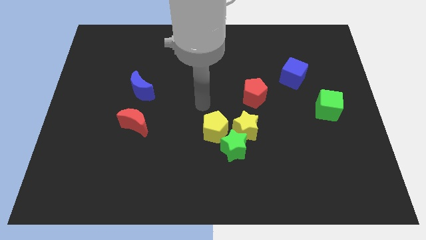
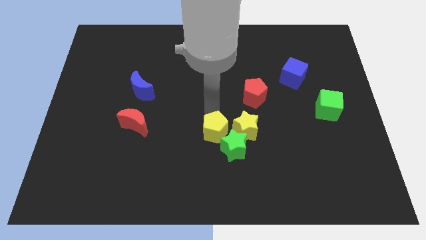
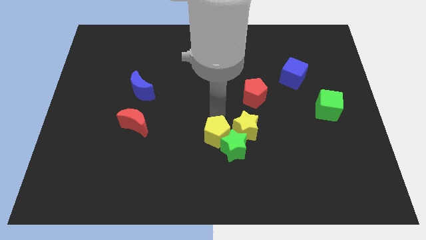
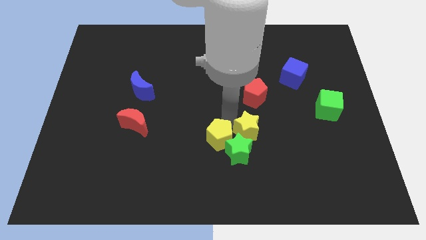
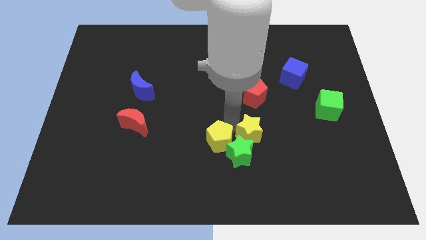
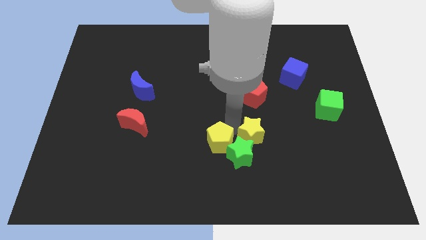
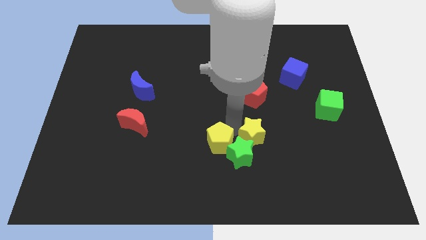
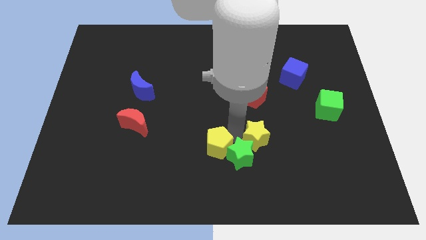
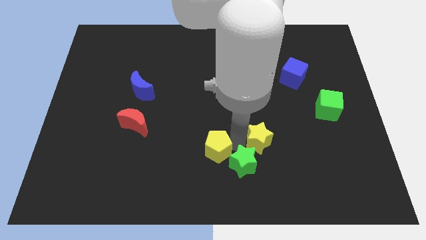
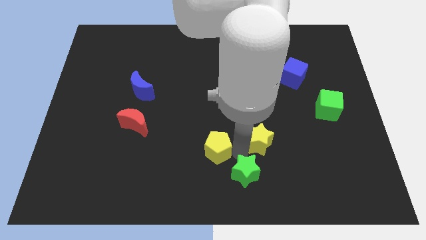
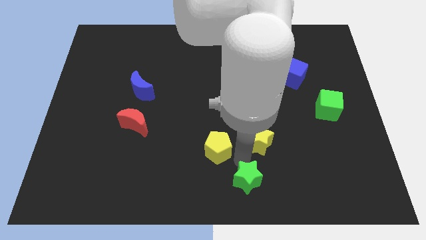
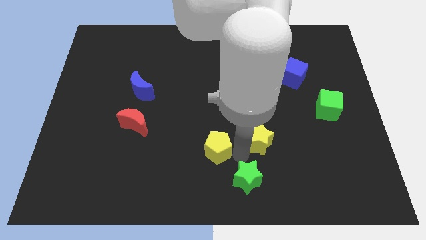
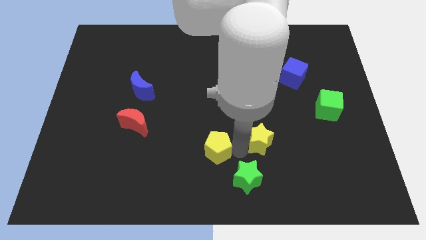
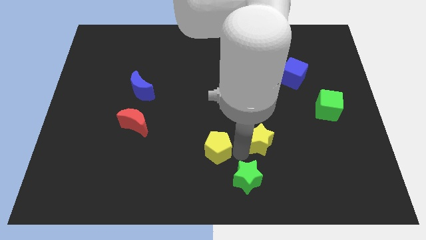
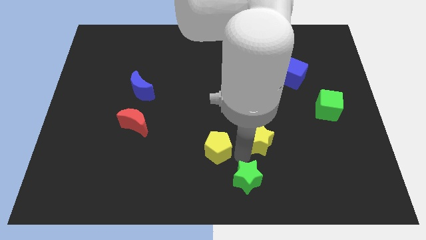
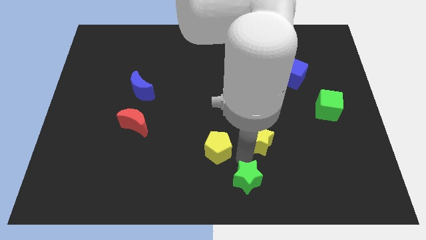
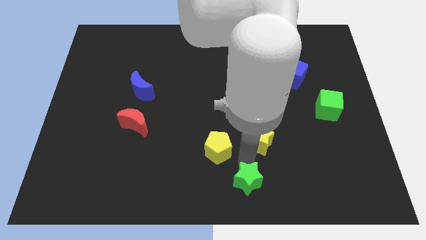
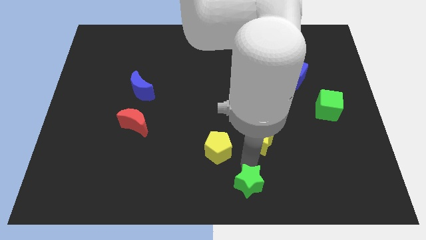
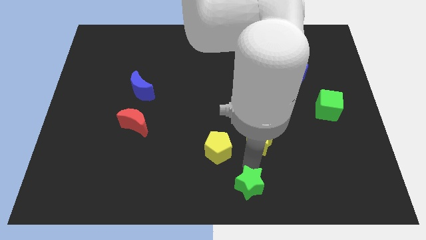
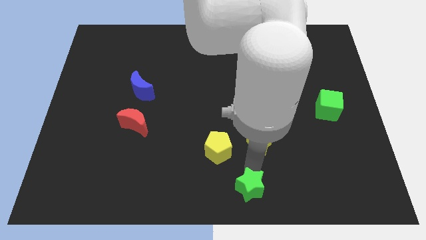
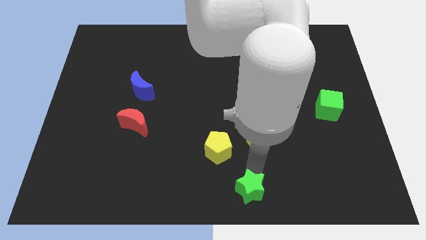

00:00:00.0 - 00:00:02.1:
move the green star away from the yellow star and yellow pentagon

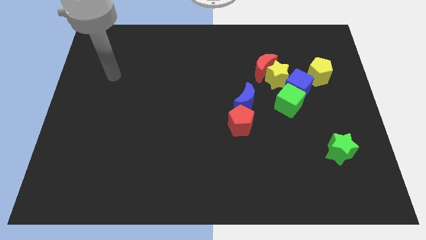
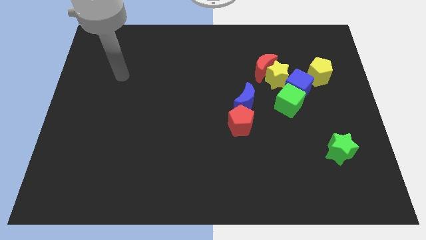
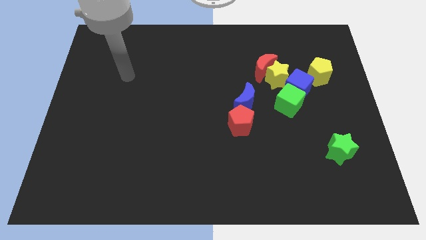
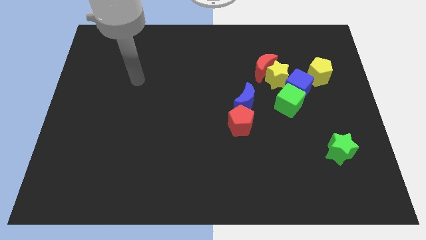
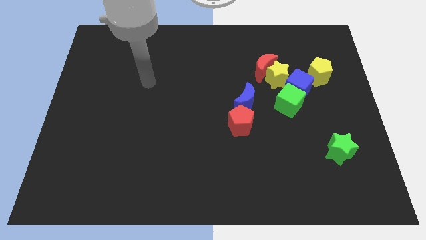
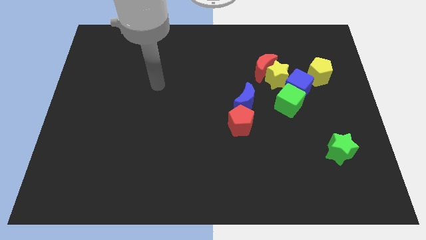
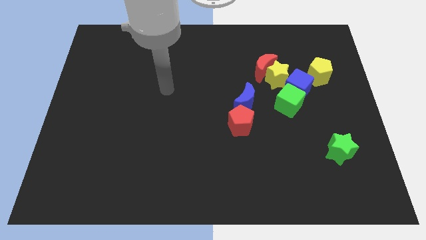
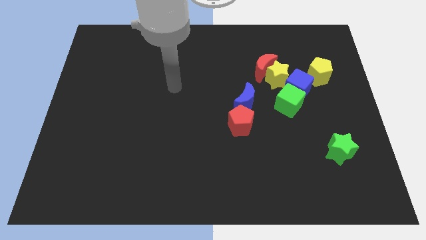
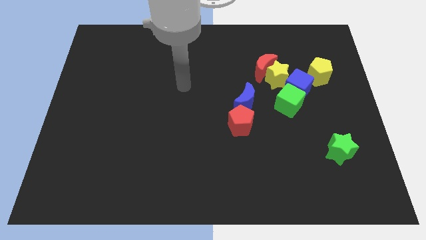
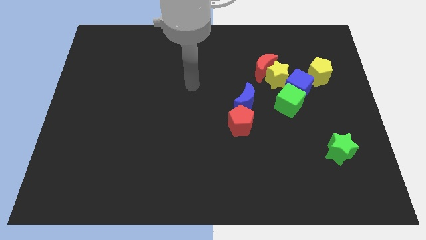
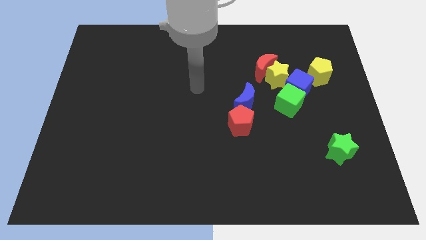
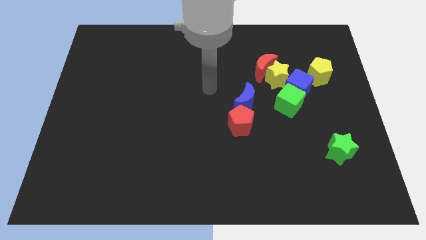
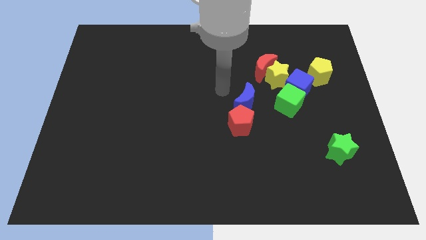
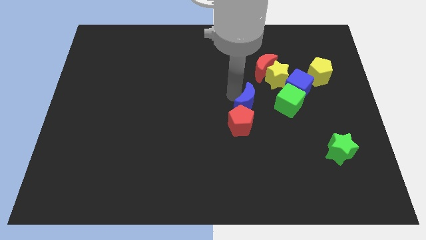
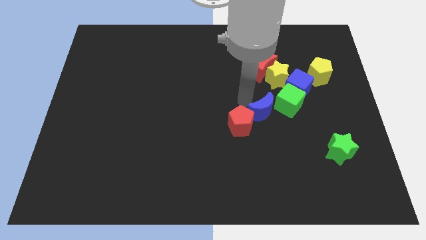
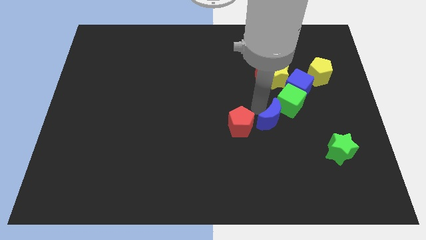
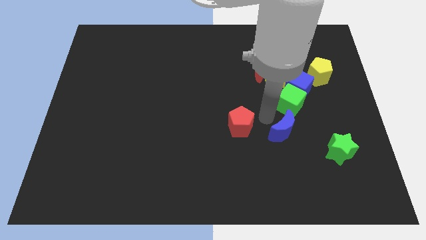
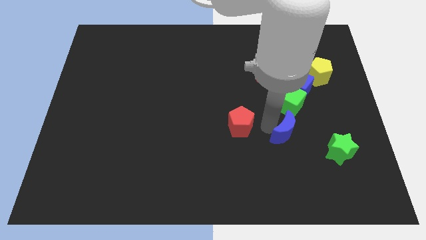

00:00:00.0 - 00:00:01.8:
pull the red pentagon apart from the blue moon

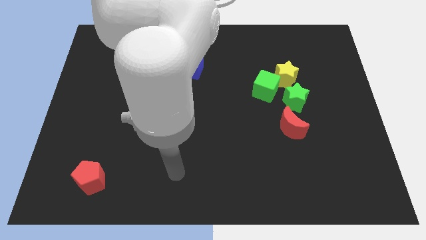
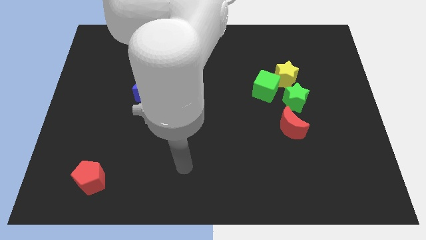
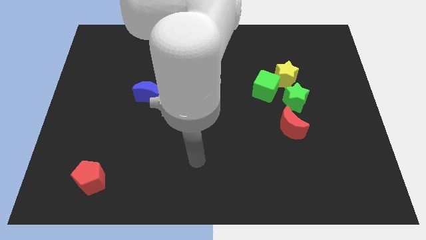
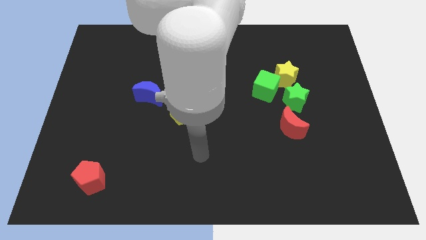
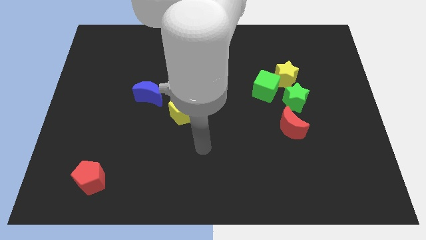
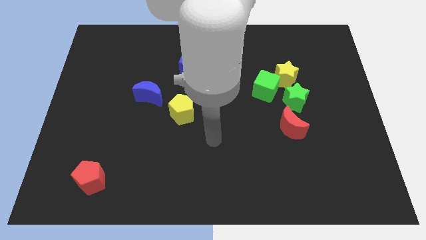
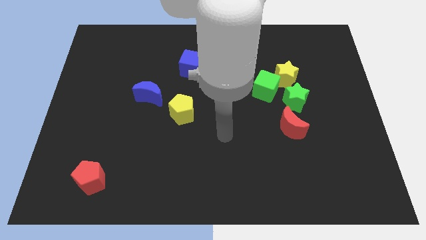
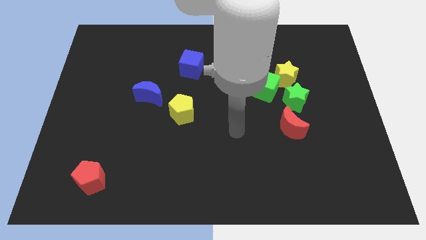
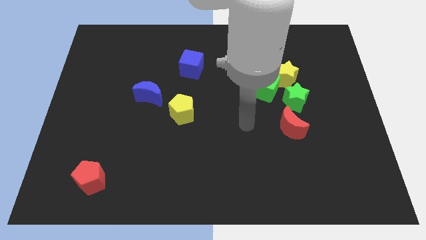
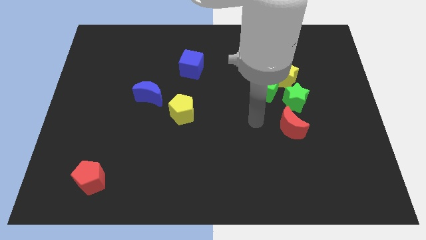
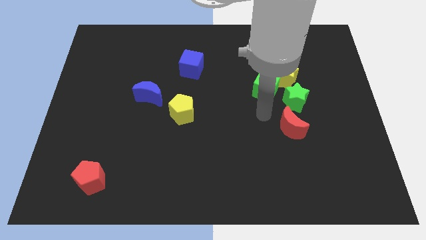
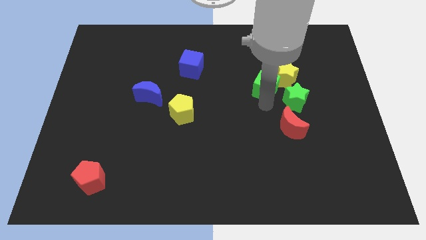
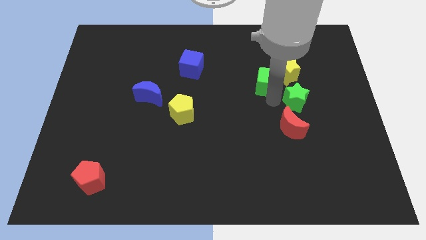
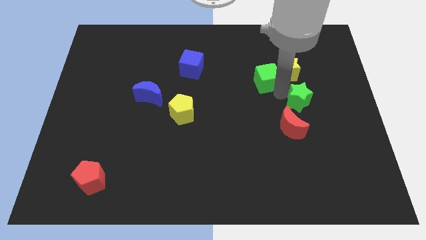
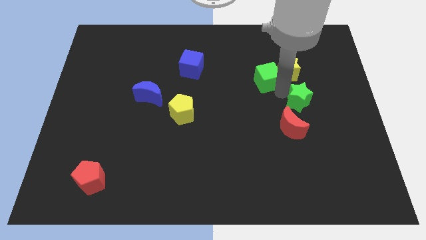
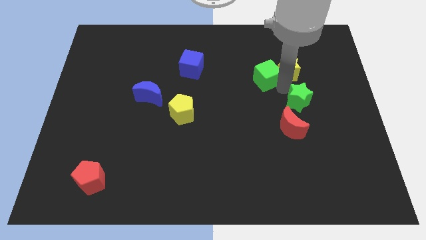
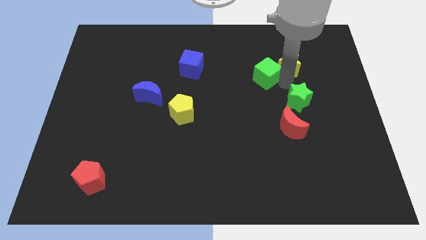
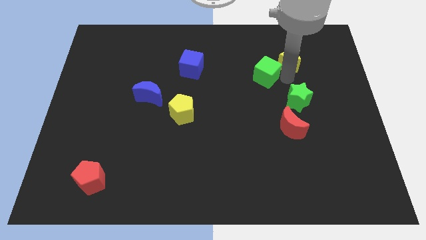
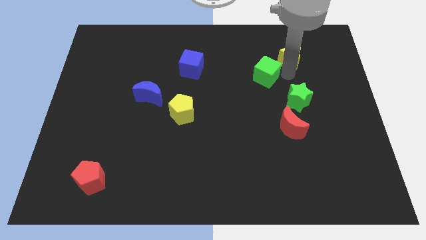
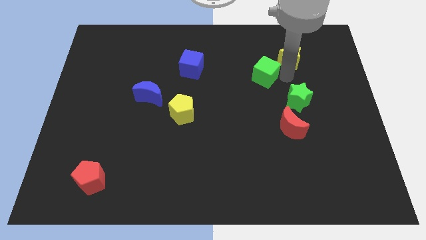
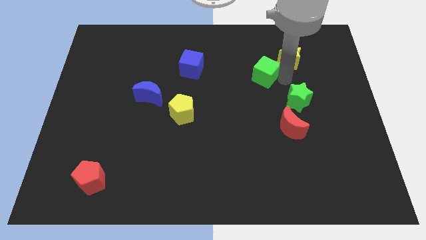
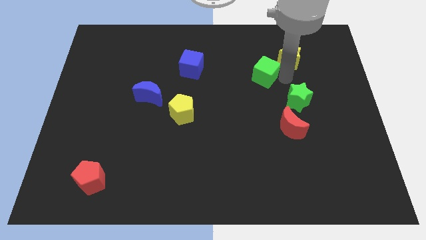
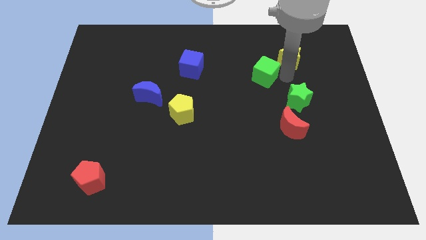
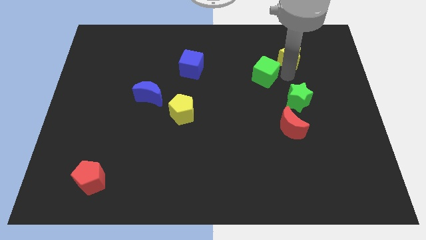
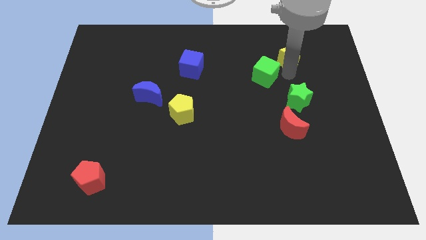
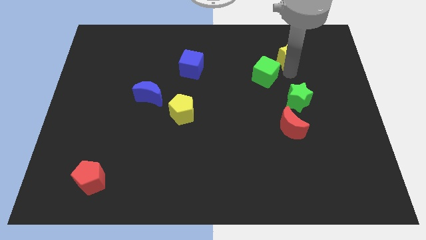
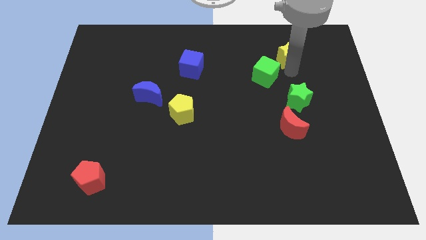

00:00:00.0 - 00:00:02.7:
separate the yellow star from the green cube and green star

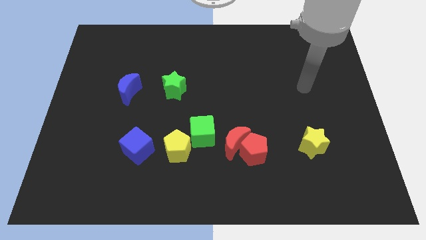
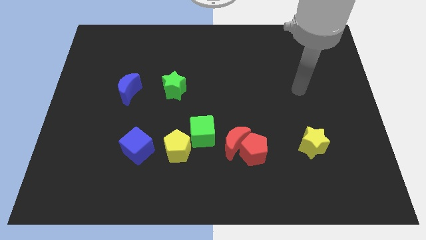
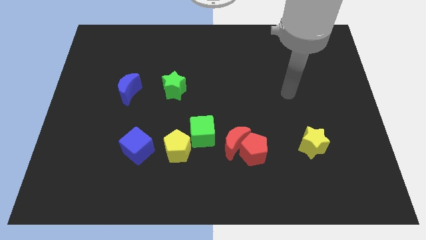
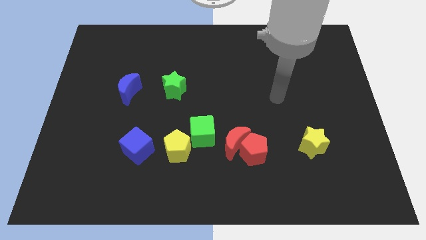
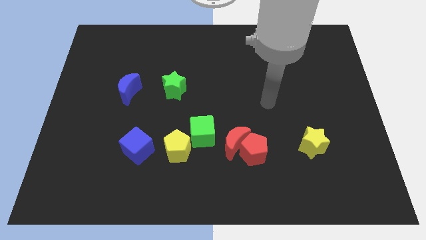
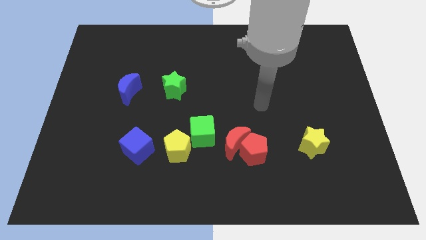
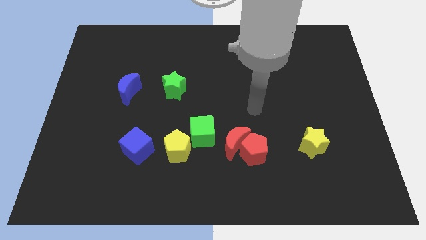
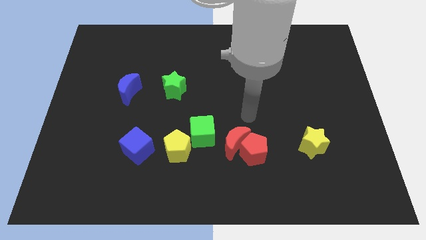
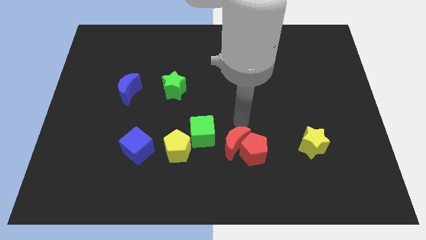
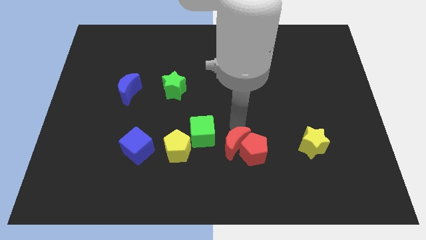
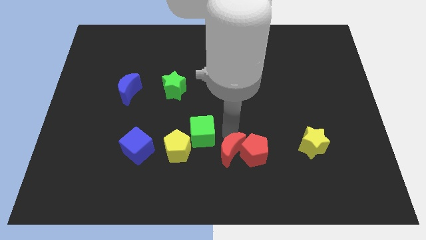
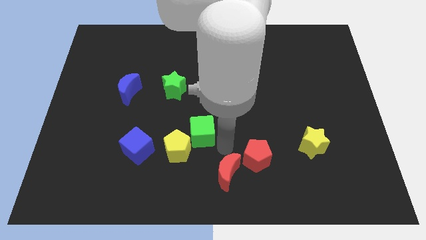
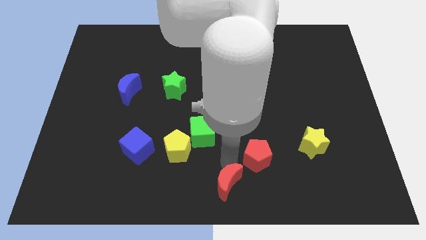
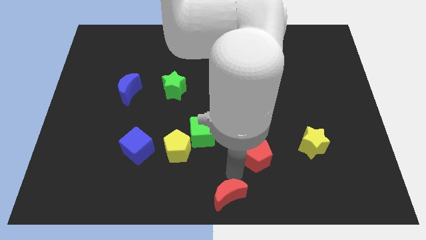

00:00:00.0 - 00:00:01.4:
separate the red pentagon from the red moon

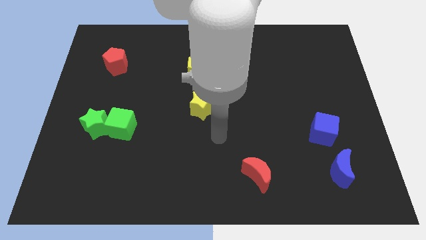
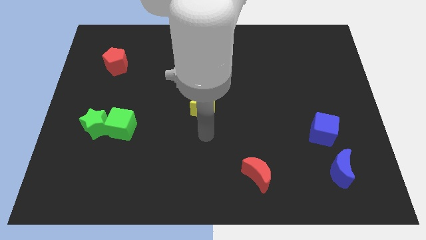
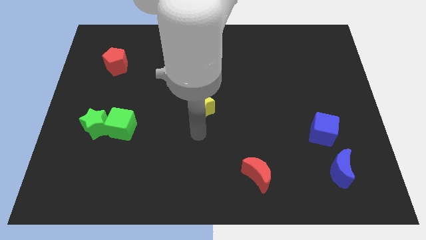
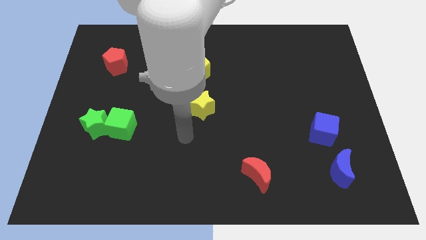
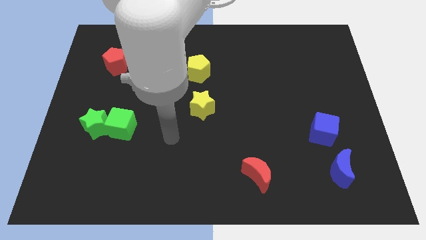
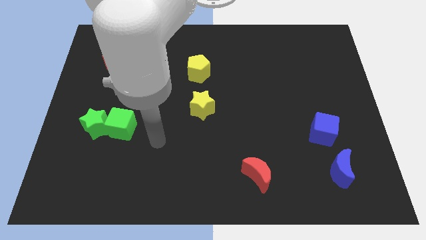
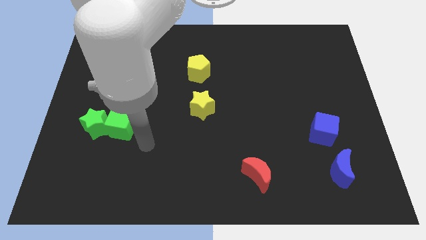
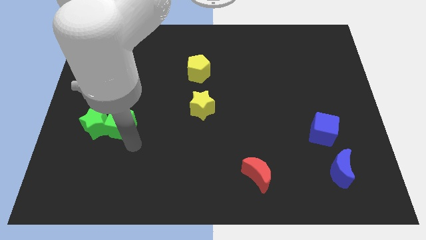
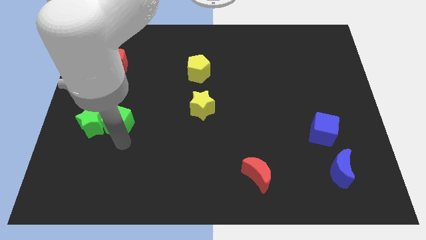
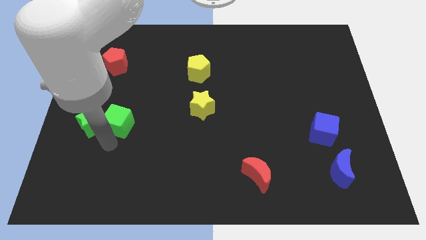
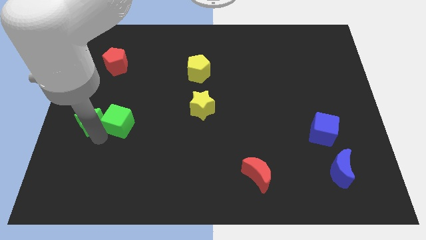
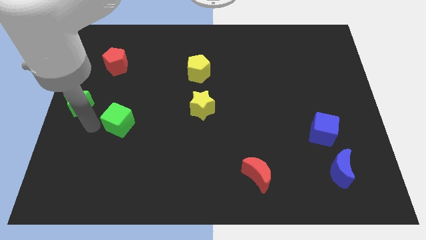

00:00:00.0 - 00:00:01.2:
separate the green cube from the green star
